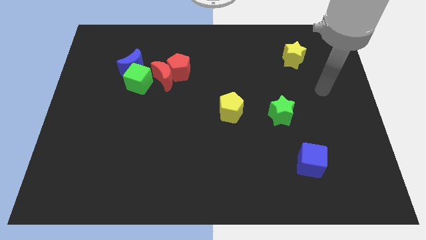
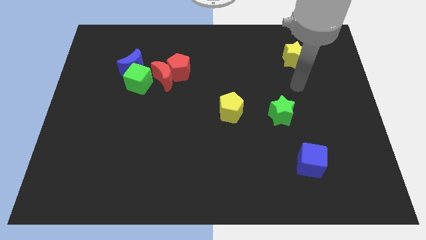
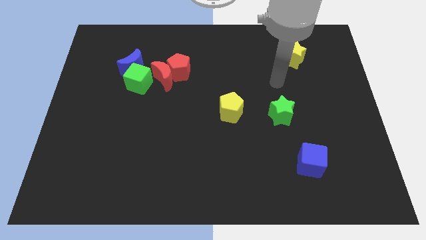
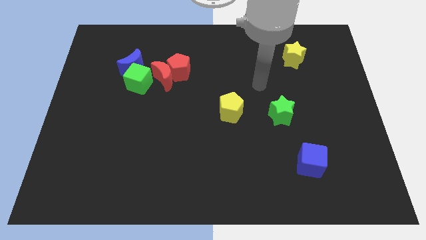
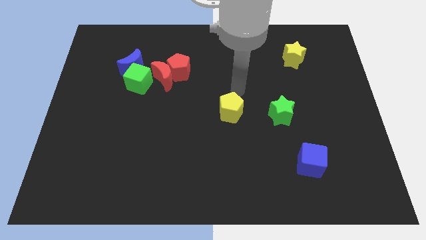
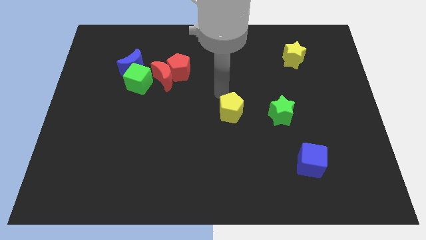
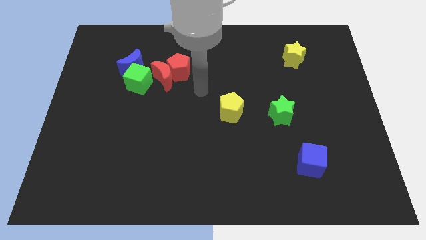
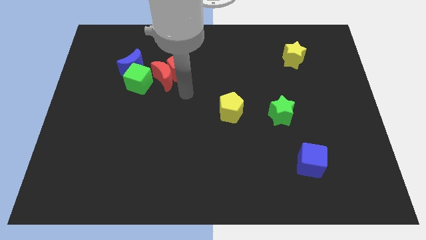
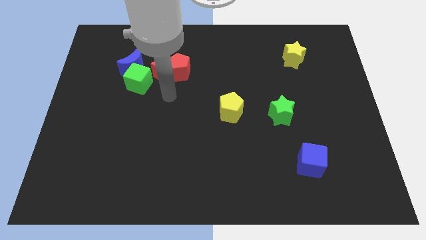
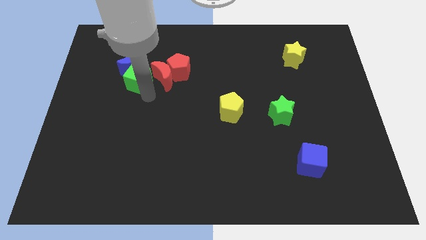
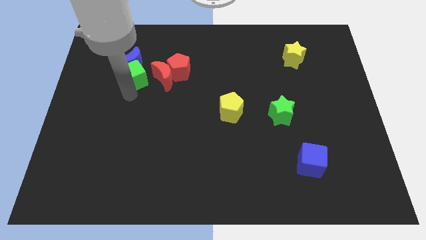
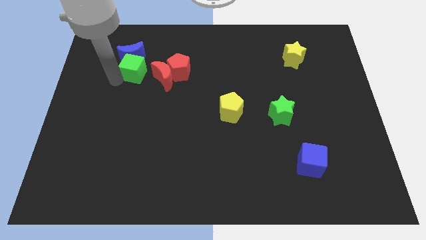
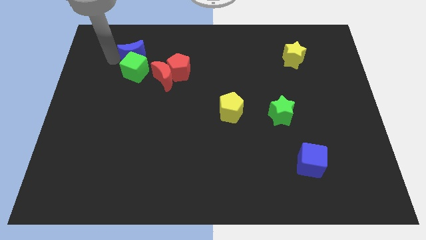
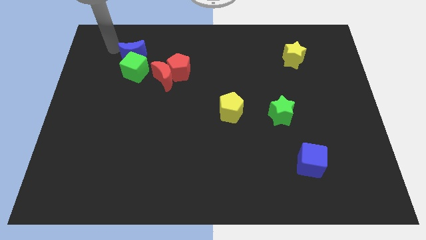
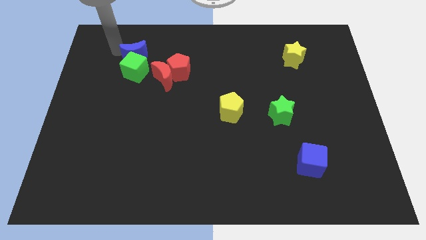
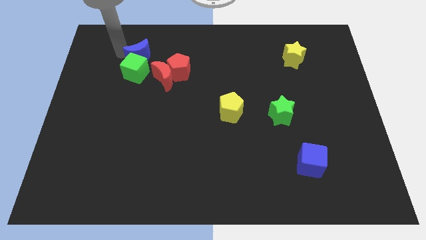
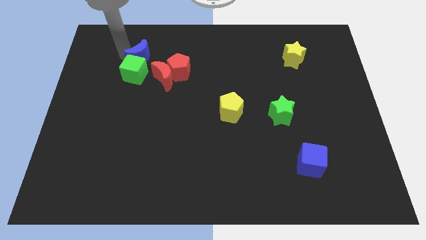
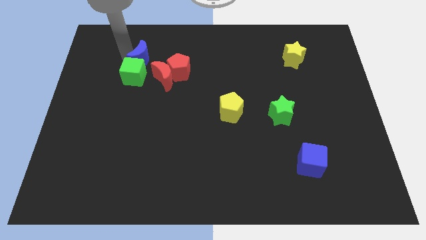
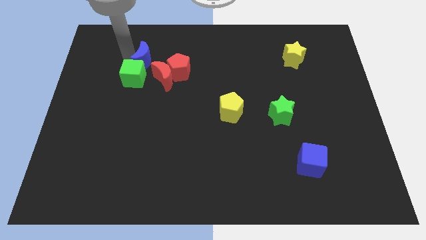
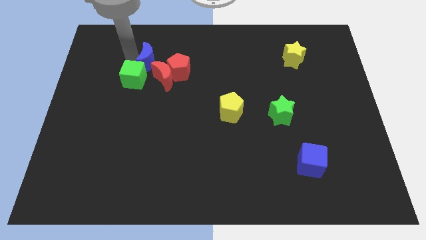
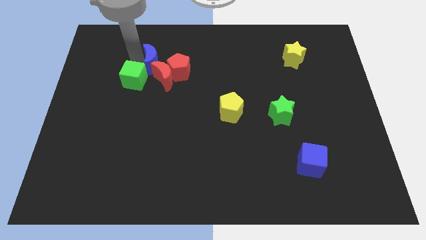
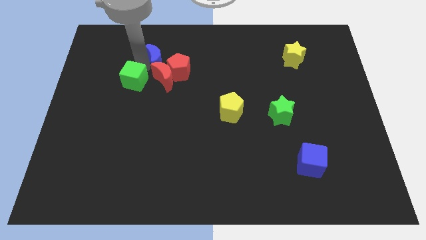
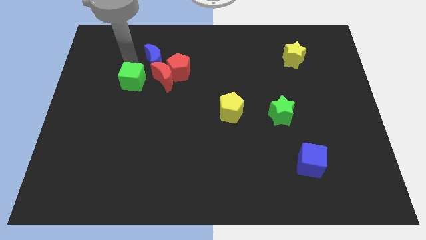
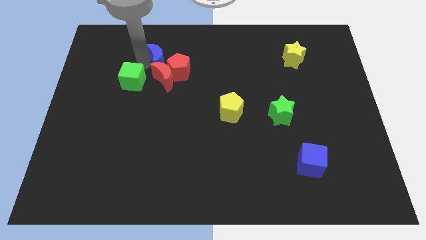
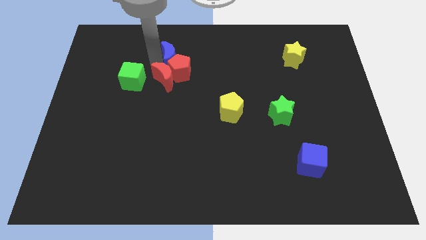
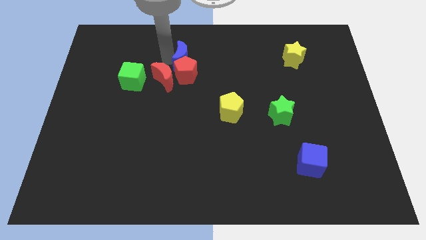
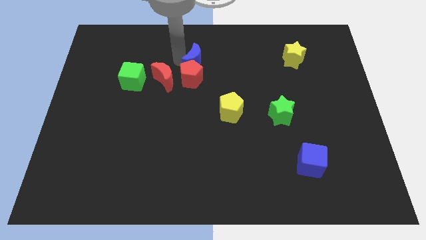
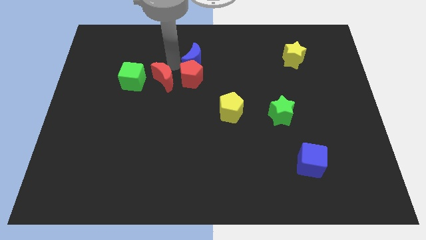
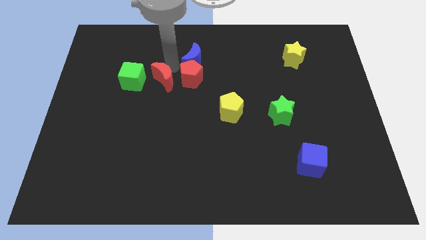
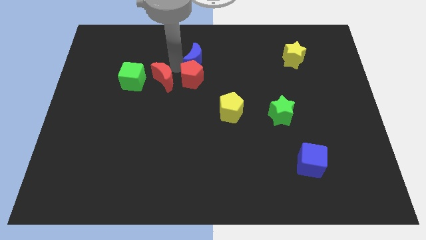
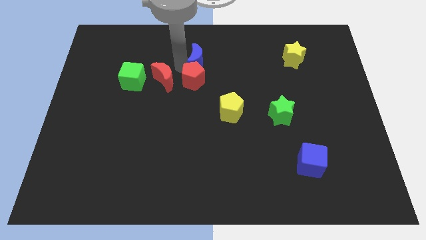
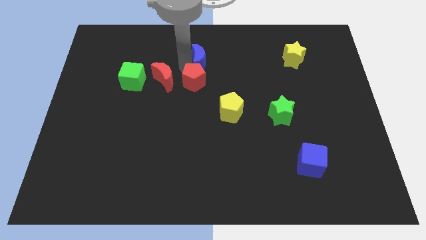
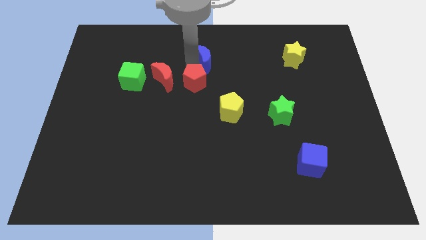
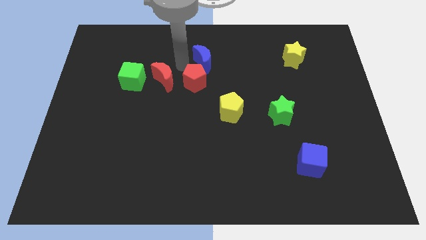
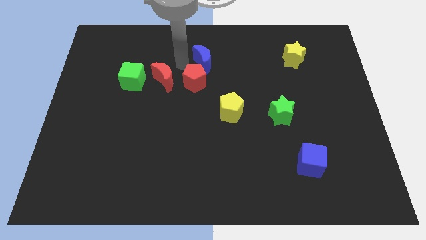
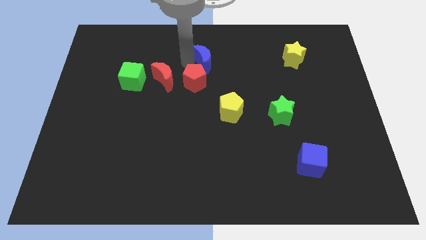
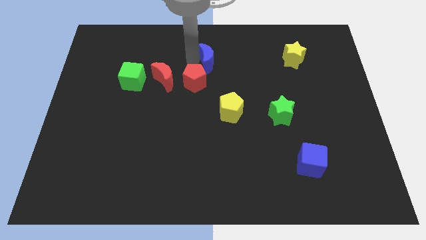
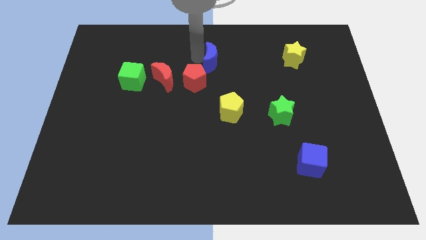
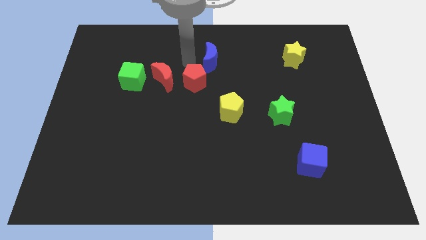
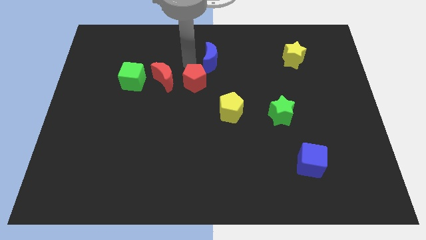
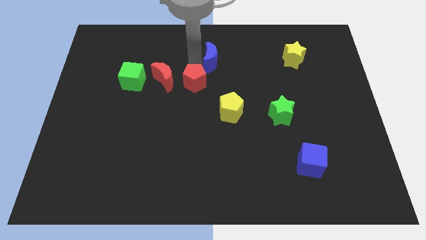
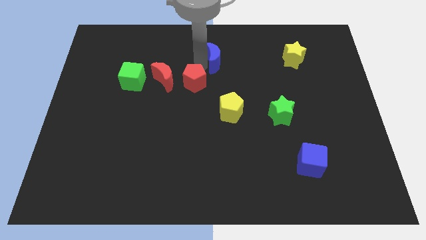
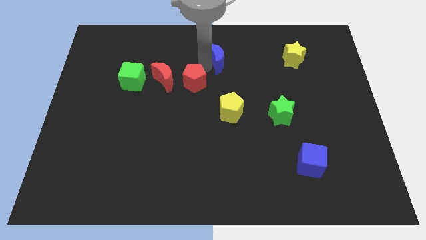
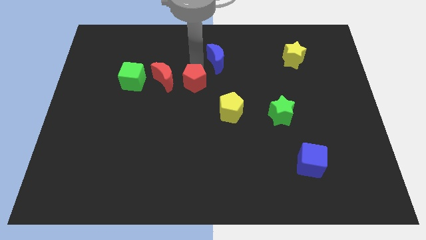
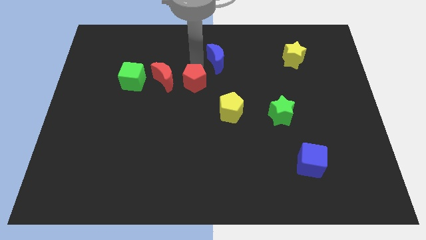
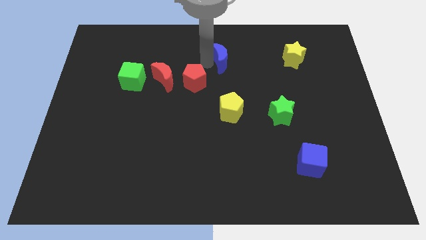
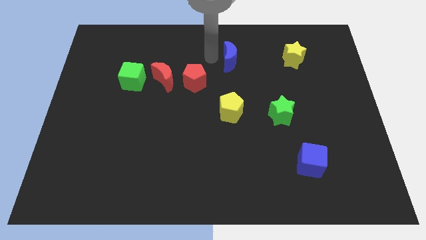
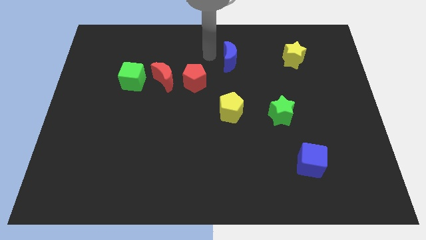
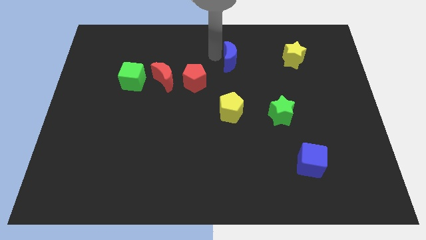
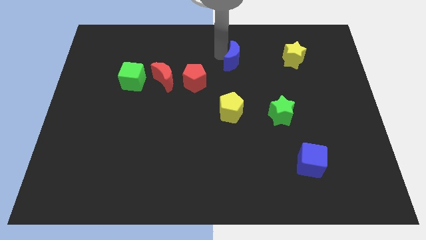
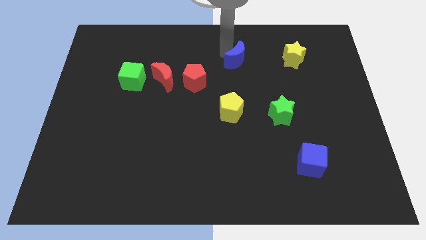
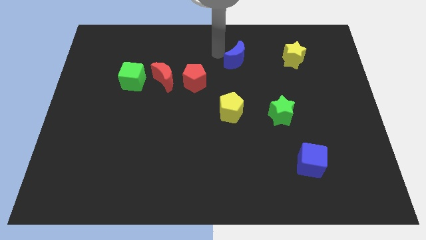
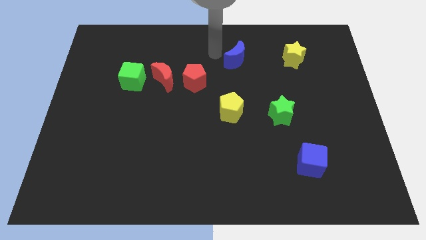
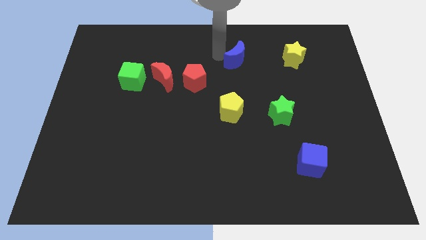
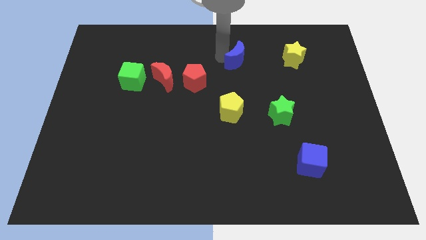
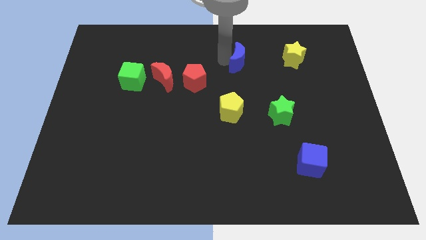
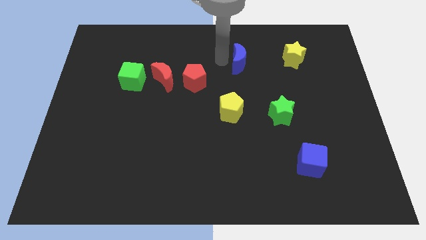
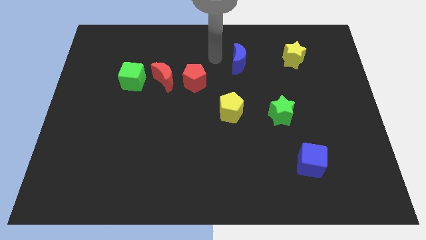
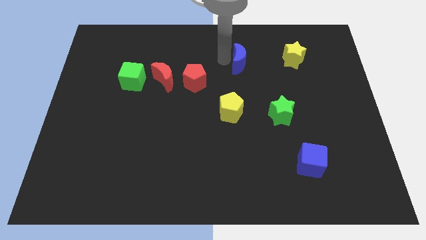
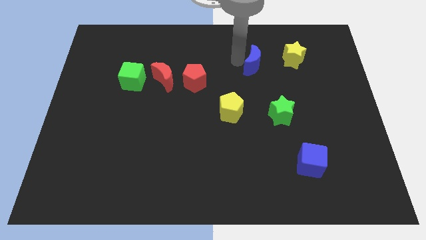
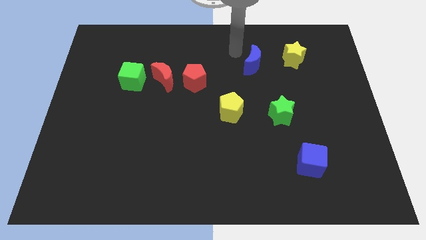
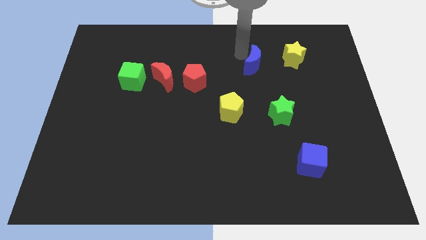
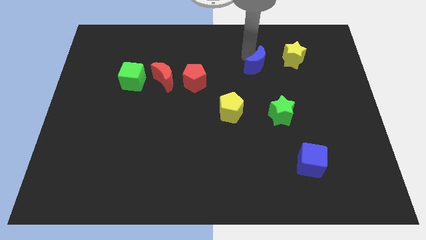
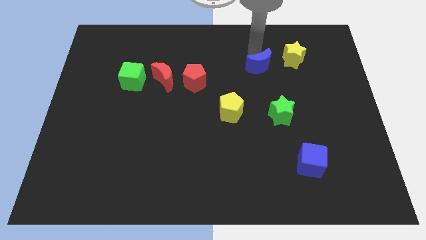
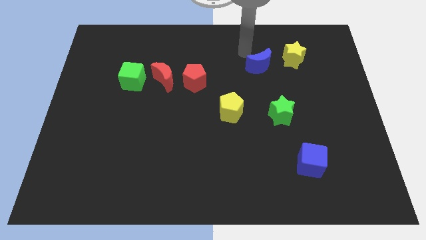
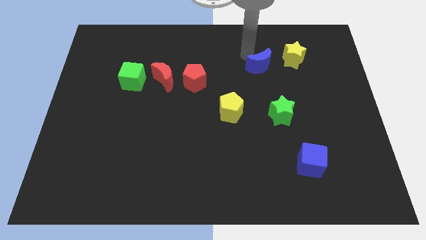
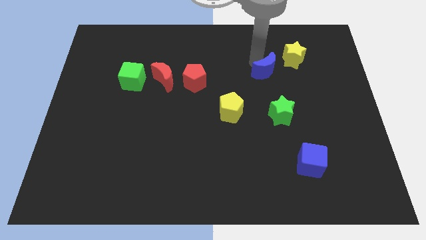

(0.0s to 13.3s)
move the blue moon above the green star

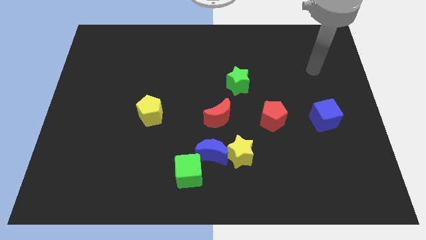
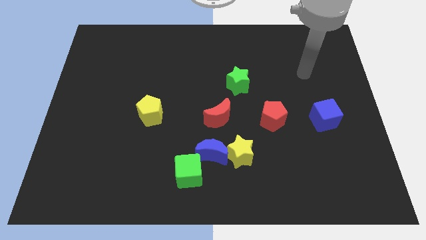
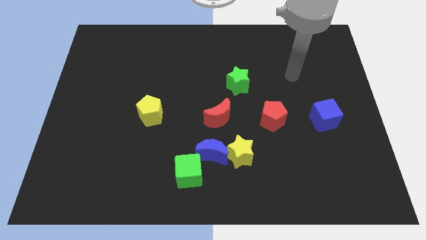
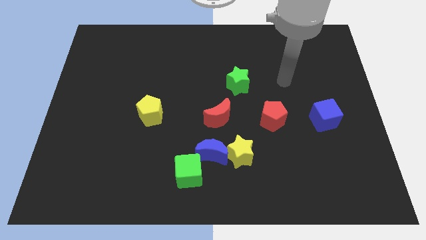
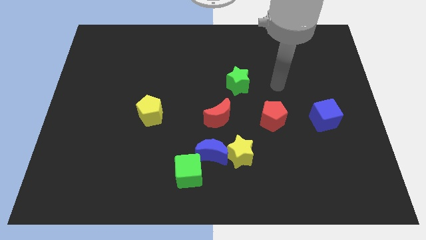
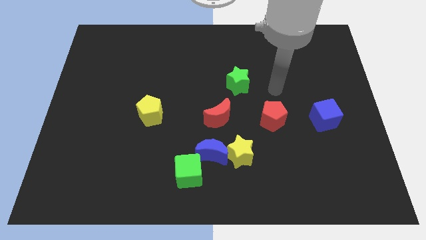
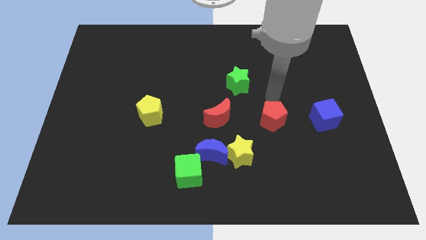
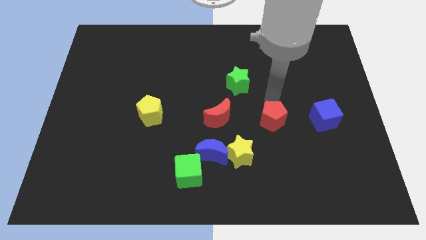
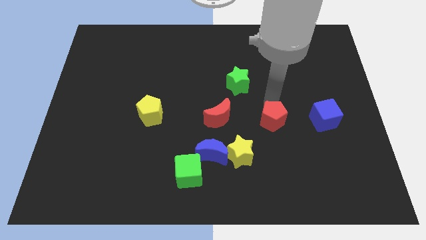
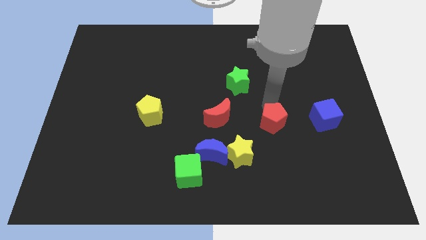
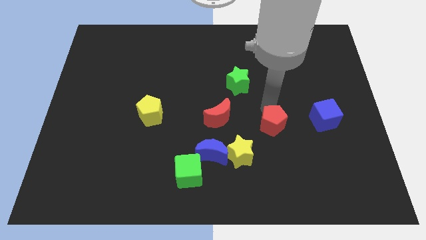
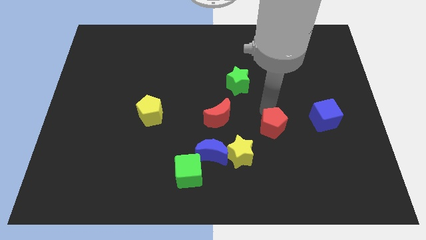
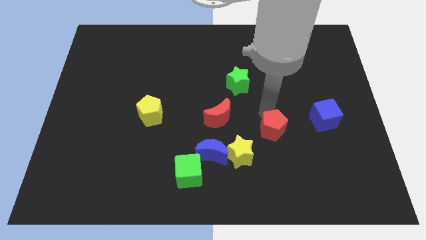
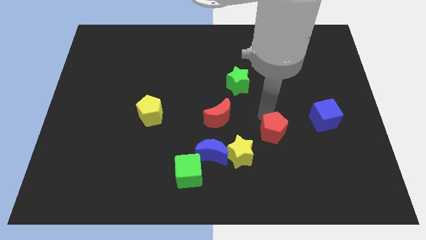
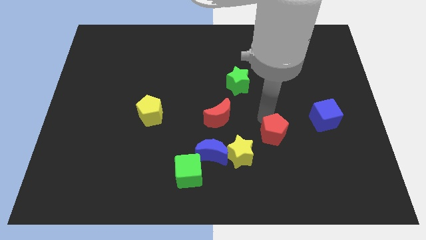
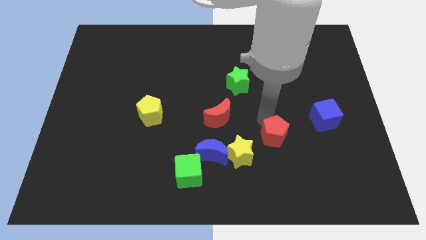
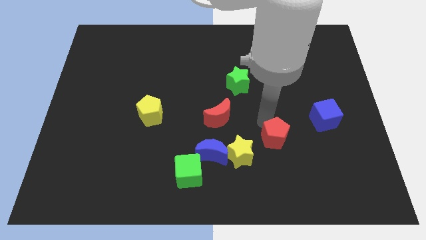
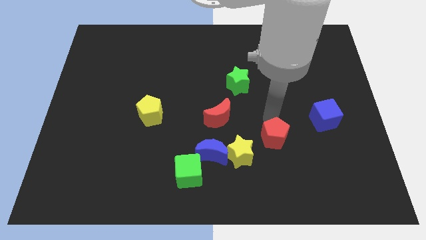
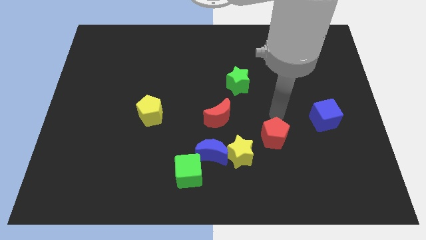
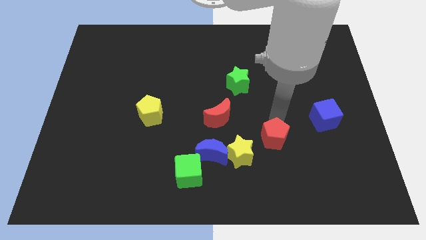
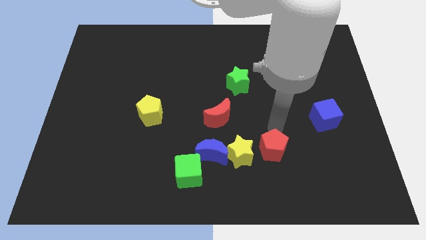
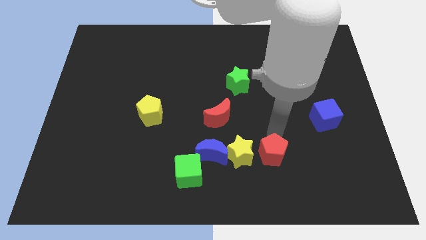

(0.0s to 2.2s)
push the red pentagon to the bottom right of the yellow star
